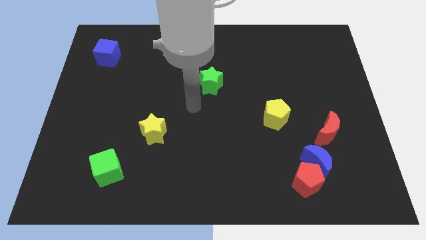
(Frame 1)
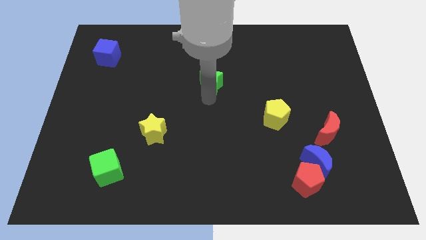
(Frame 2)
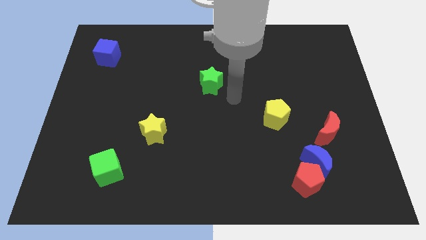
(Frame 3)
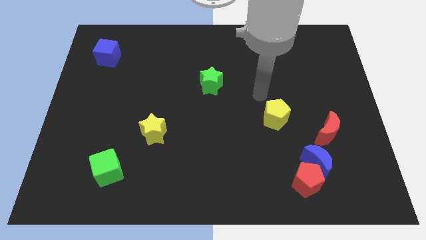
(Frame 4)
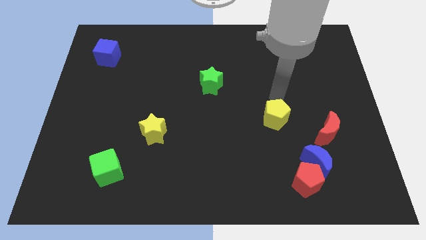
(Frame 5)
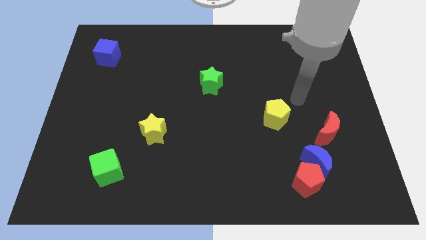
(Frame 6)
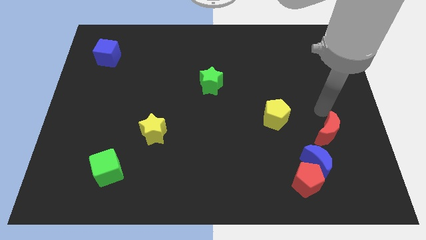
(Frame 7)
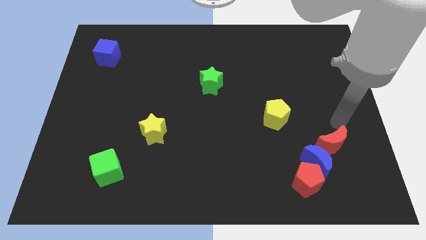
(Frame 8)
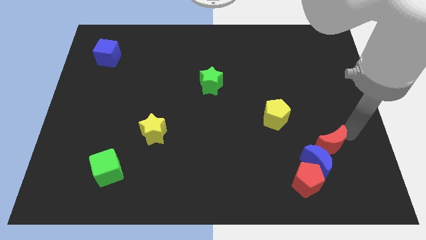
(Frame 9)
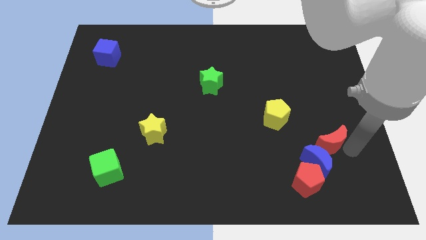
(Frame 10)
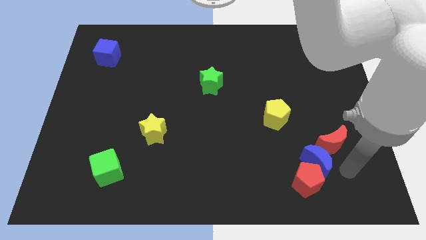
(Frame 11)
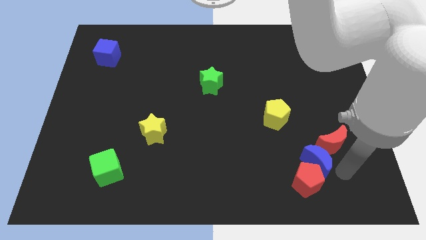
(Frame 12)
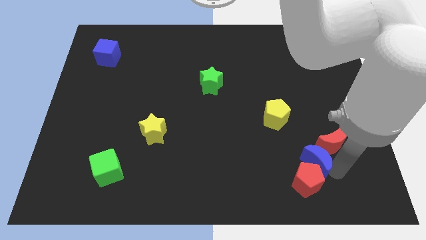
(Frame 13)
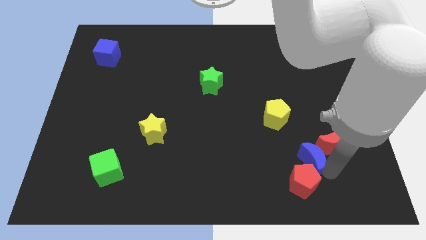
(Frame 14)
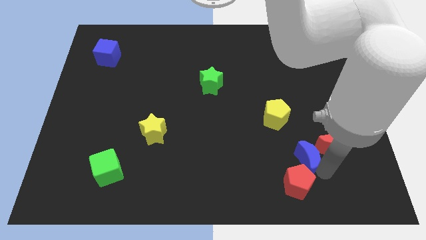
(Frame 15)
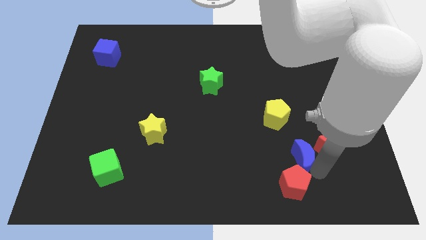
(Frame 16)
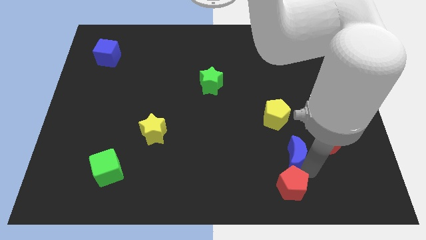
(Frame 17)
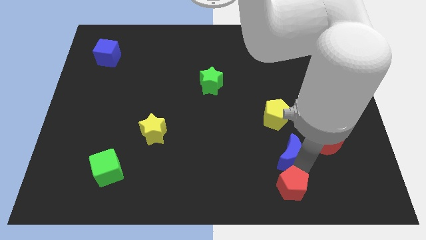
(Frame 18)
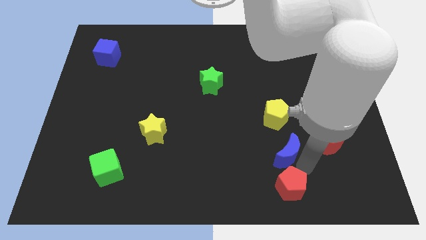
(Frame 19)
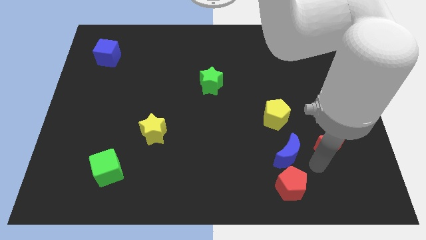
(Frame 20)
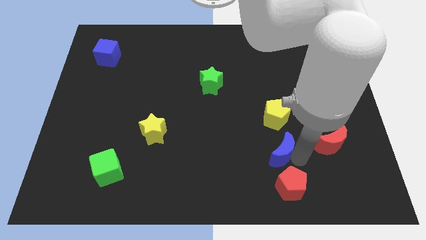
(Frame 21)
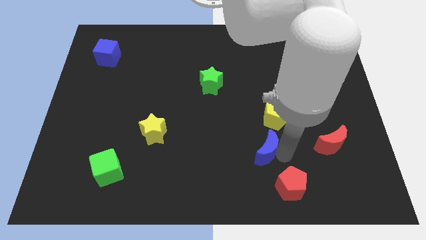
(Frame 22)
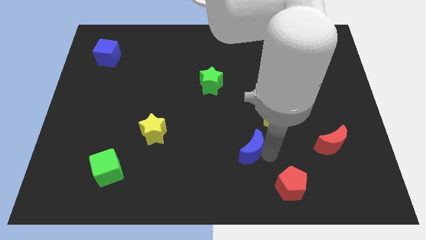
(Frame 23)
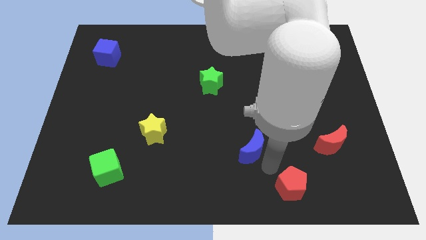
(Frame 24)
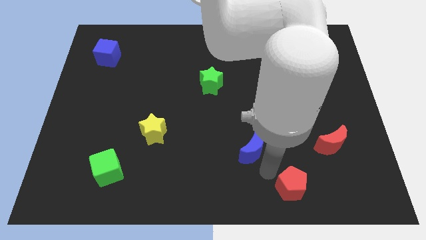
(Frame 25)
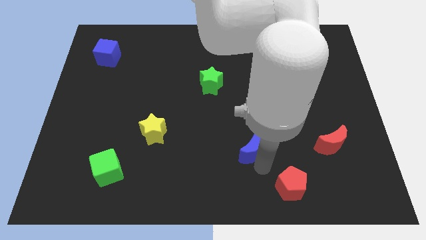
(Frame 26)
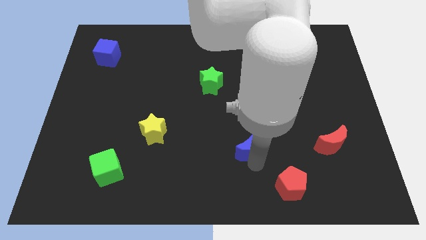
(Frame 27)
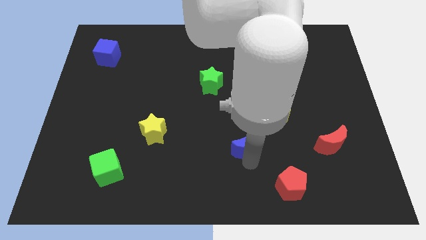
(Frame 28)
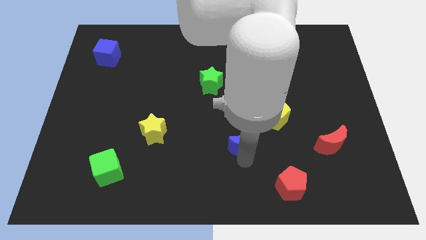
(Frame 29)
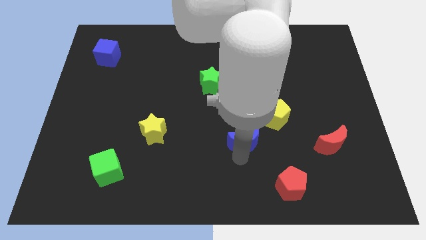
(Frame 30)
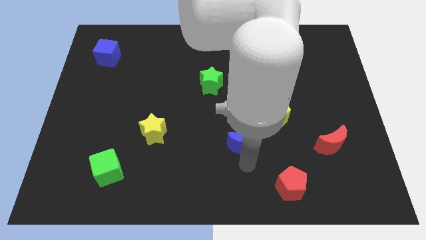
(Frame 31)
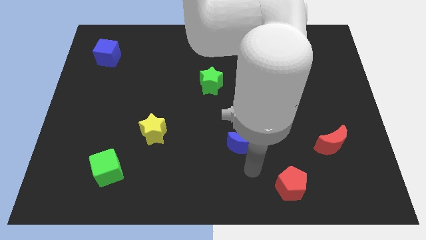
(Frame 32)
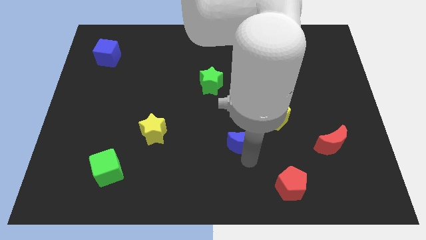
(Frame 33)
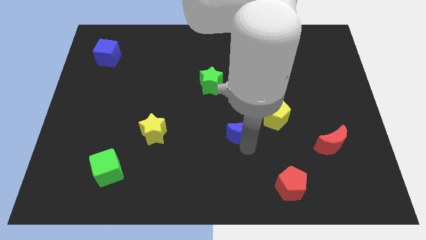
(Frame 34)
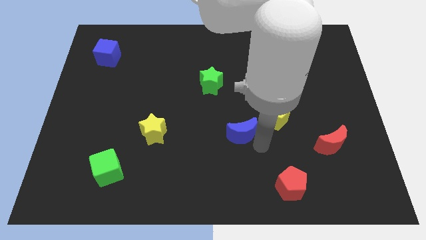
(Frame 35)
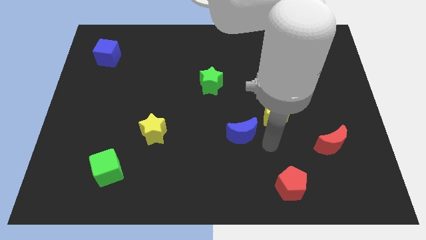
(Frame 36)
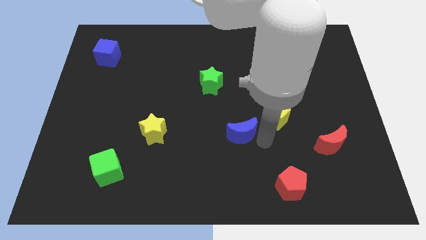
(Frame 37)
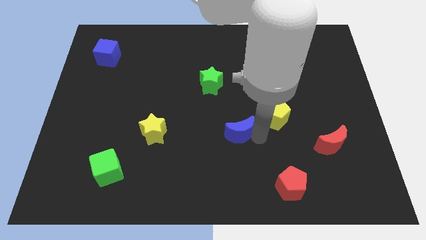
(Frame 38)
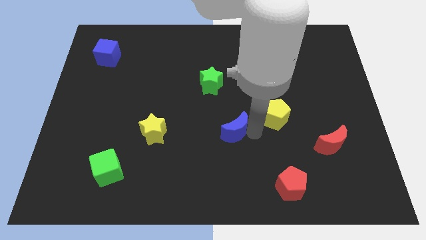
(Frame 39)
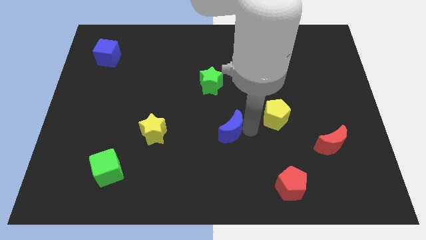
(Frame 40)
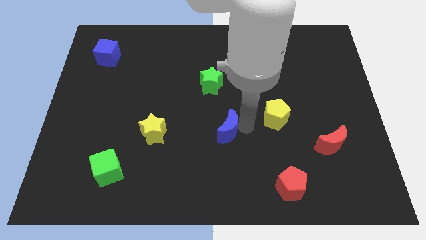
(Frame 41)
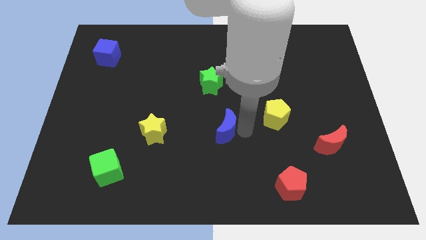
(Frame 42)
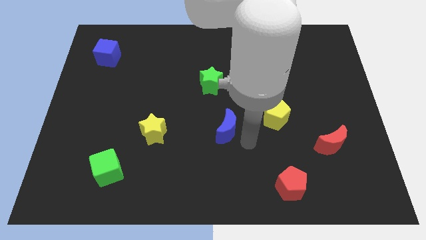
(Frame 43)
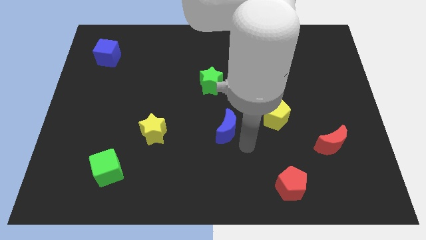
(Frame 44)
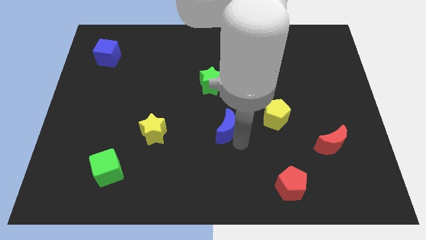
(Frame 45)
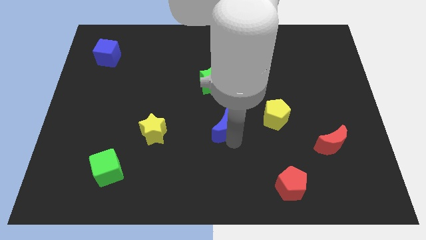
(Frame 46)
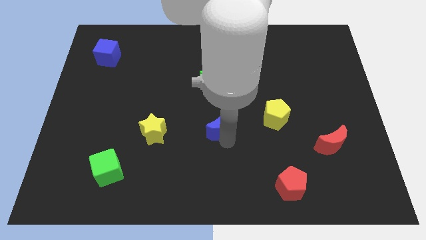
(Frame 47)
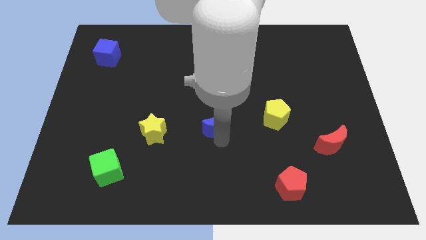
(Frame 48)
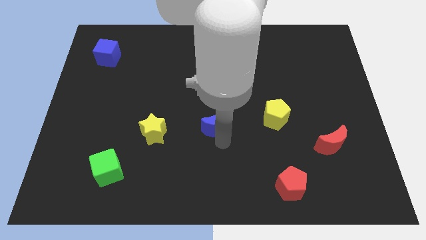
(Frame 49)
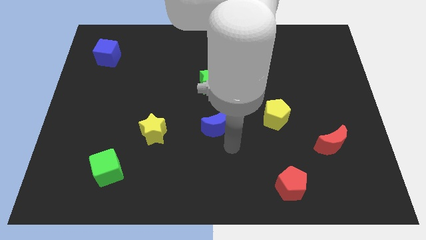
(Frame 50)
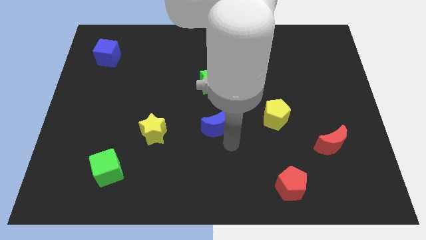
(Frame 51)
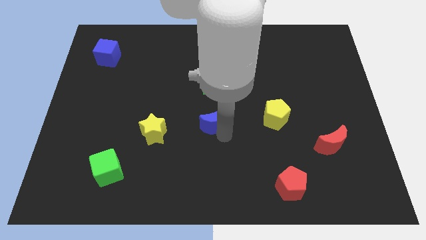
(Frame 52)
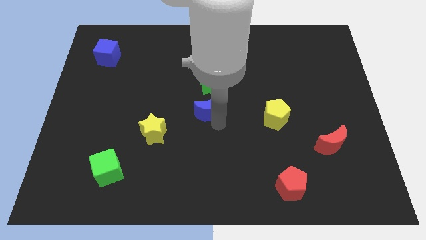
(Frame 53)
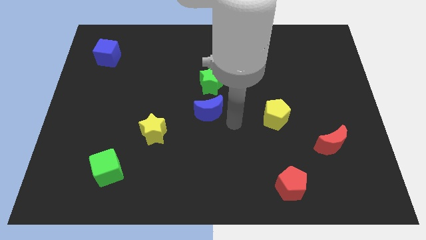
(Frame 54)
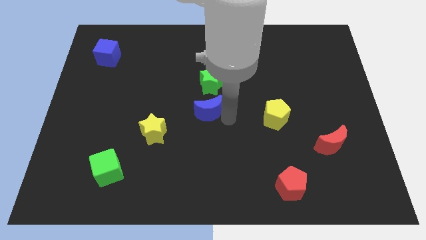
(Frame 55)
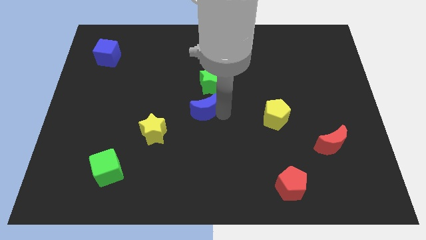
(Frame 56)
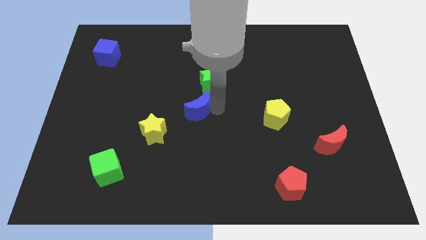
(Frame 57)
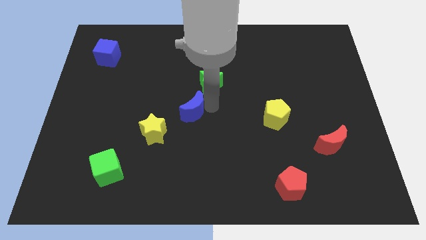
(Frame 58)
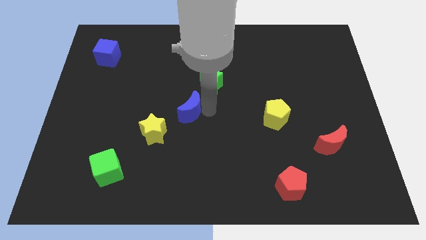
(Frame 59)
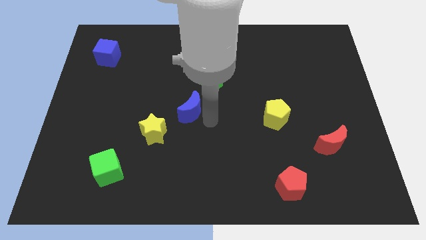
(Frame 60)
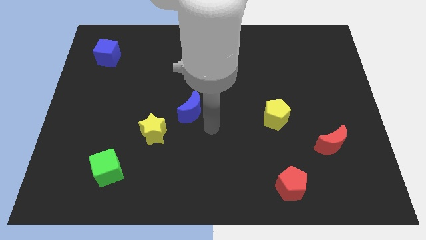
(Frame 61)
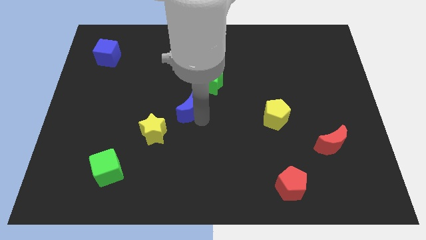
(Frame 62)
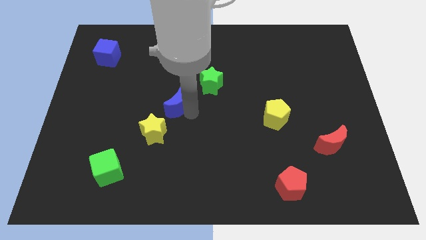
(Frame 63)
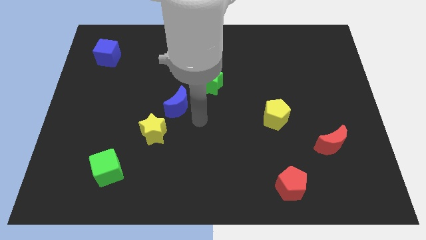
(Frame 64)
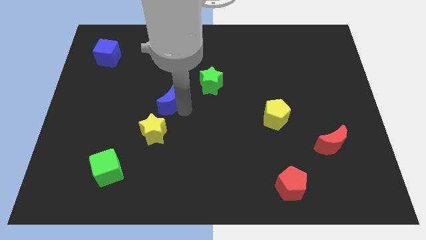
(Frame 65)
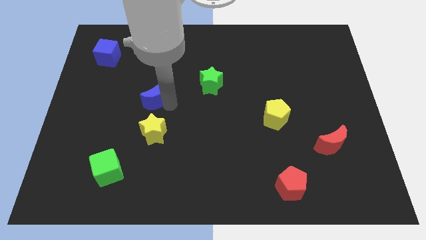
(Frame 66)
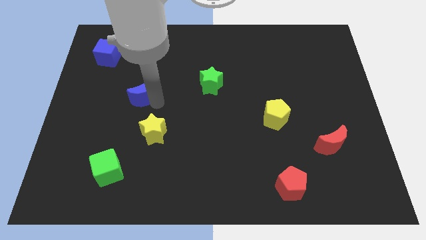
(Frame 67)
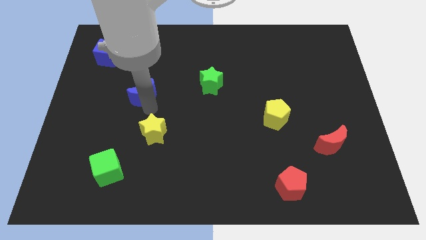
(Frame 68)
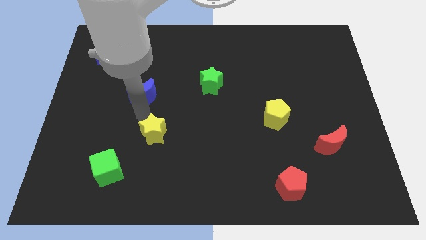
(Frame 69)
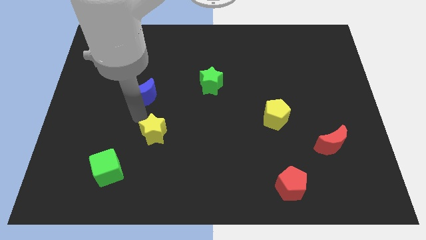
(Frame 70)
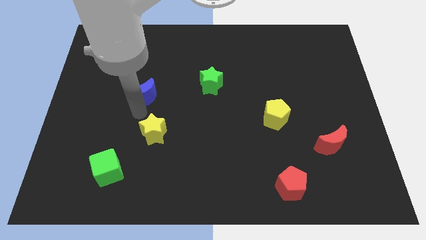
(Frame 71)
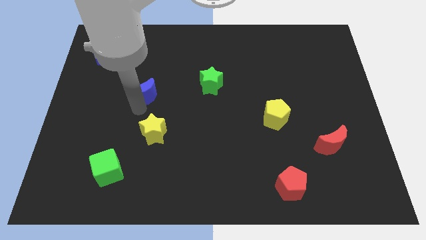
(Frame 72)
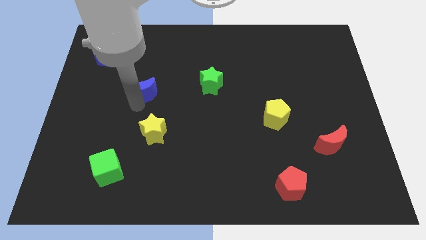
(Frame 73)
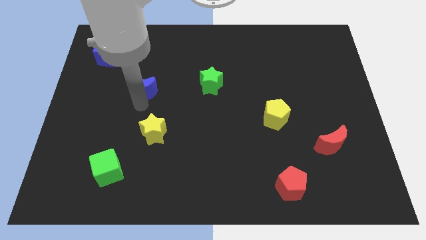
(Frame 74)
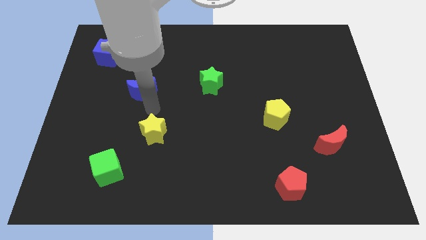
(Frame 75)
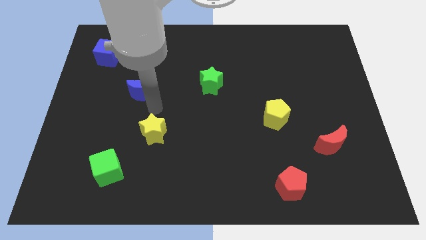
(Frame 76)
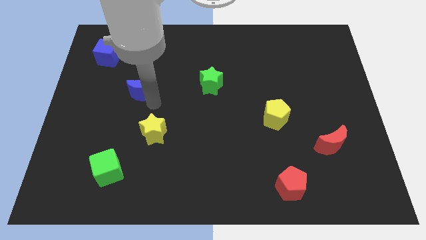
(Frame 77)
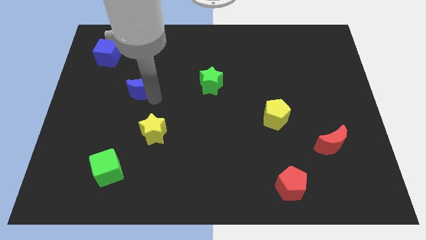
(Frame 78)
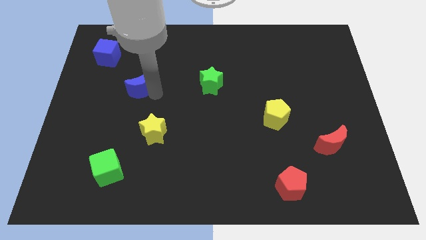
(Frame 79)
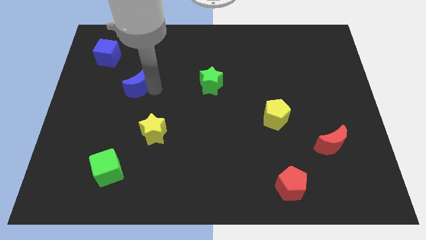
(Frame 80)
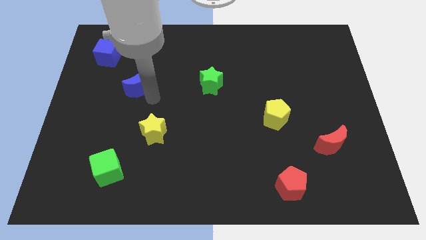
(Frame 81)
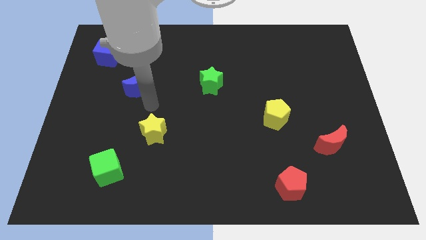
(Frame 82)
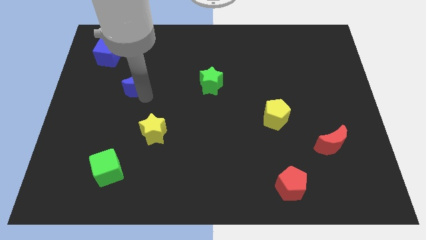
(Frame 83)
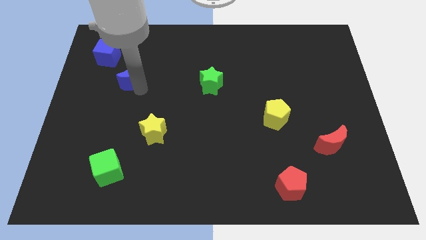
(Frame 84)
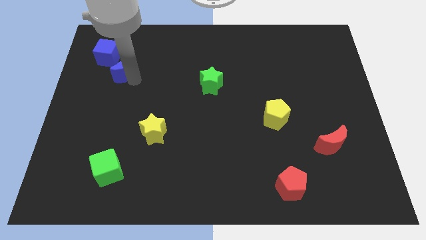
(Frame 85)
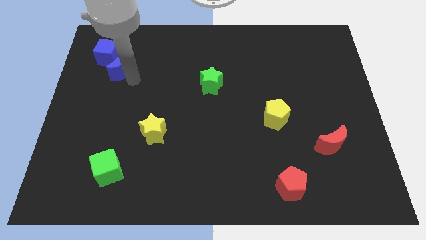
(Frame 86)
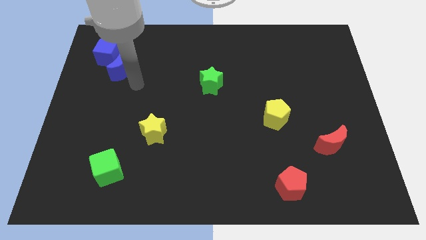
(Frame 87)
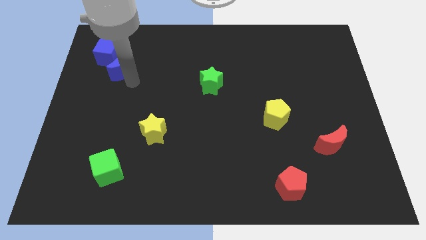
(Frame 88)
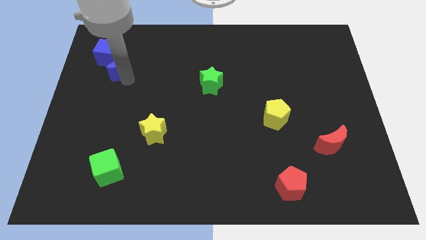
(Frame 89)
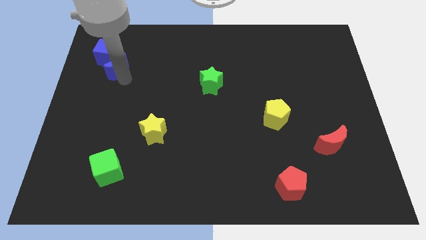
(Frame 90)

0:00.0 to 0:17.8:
slide the blue moon towards the blue cube
